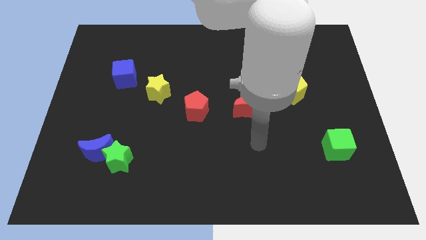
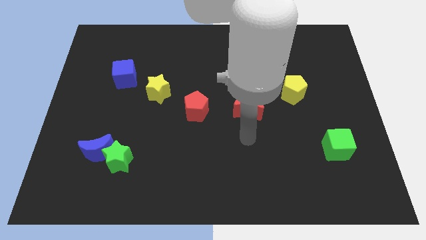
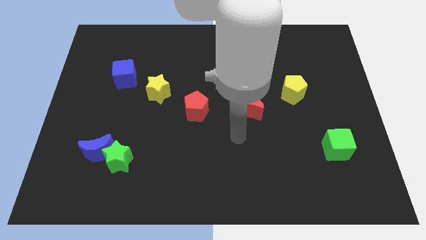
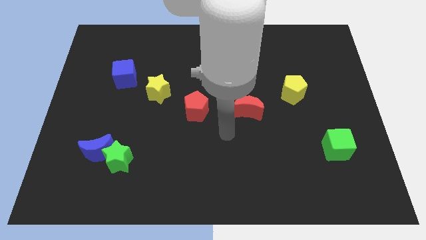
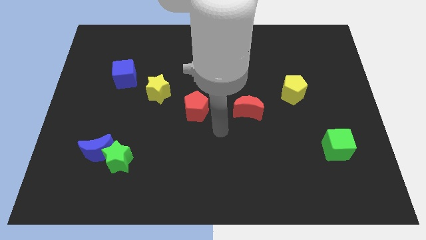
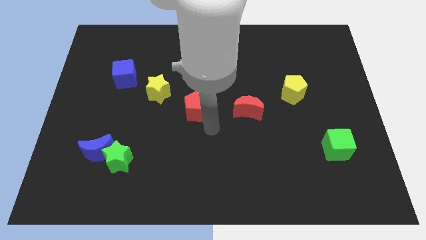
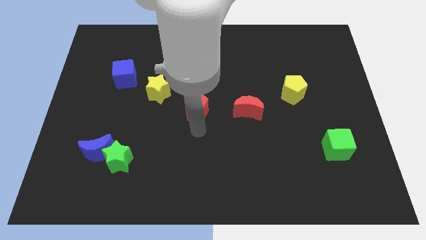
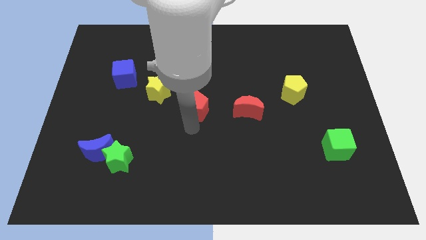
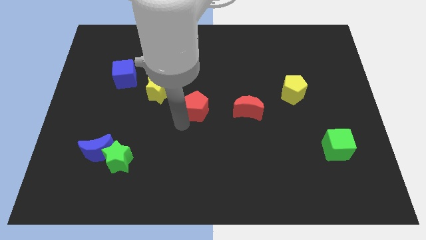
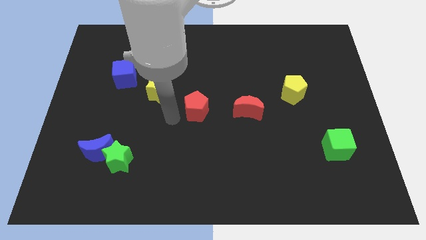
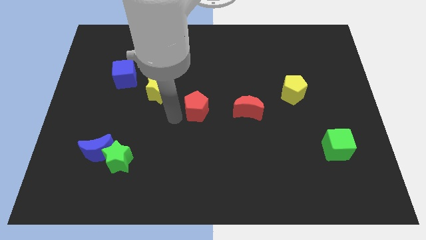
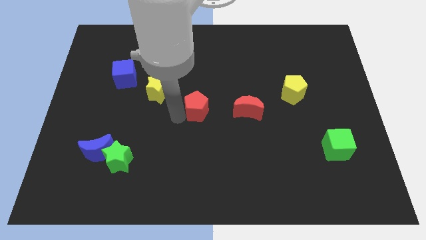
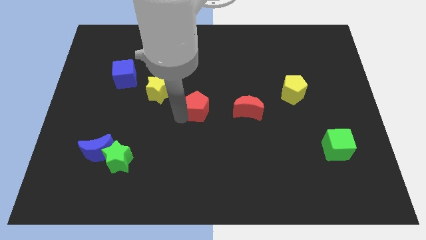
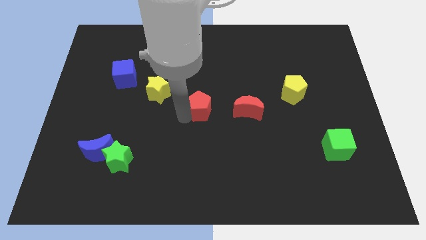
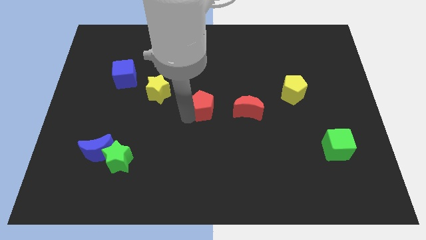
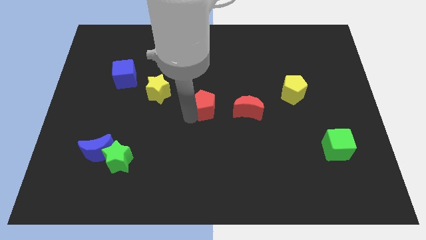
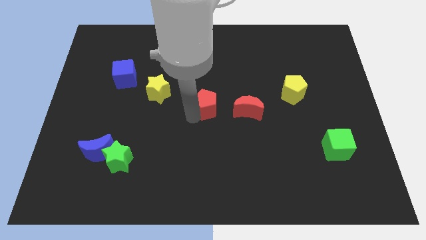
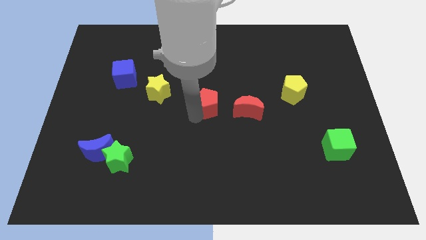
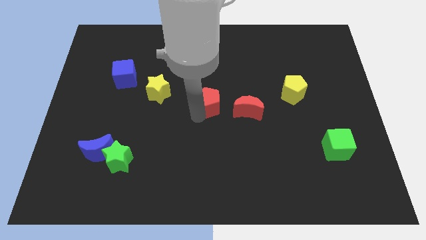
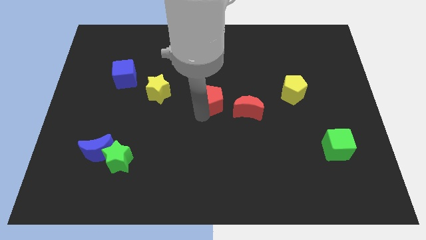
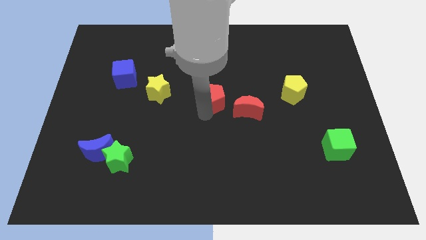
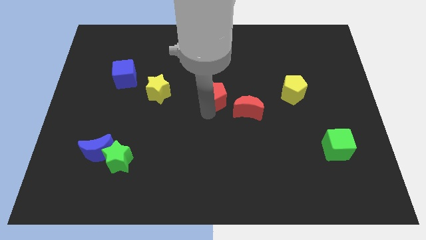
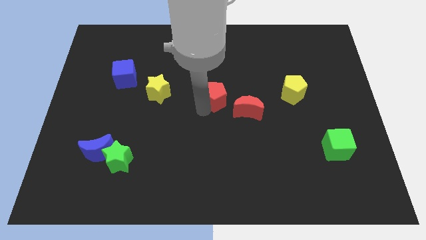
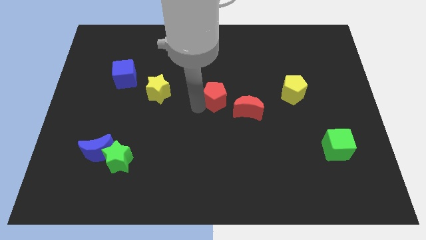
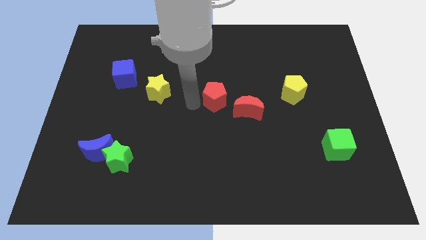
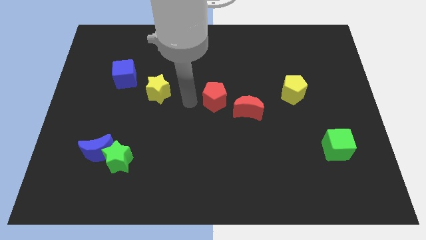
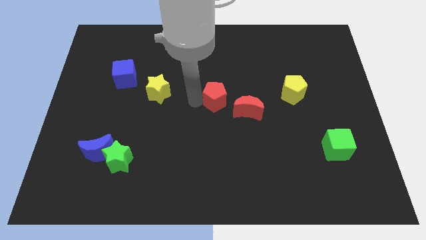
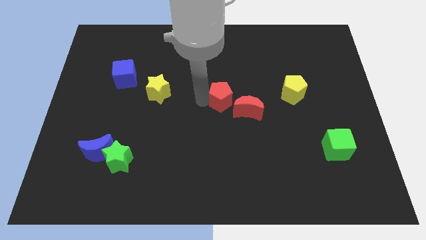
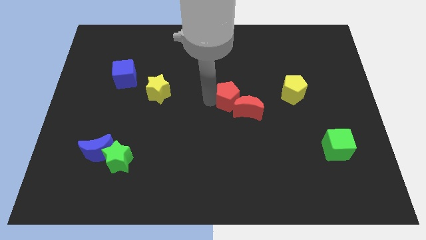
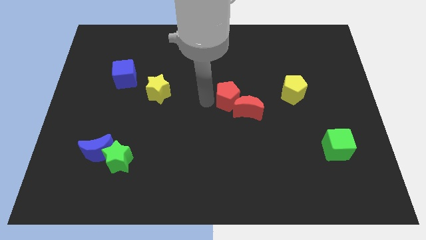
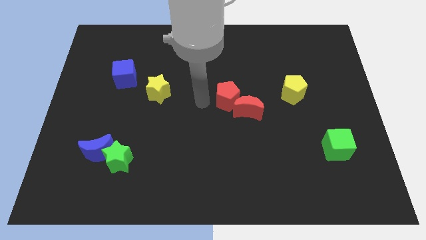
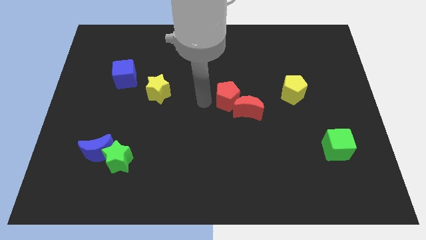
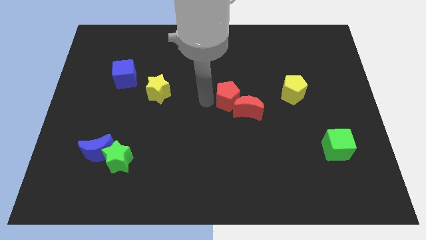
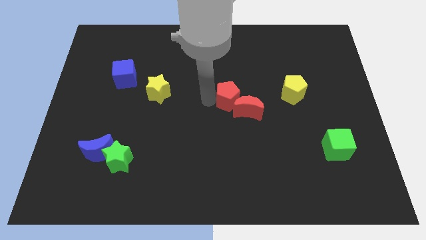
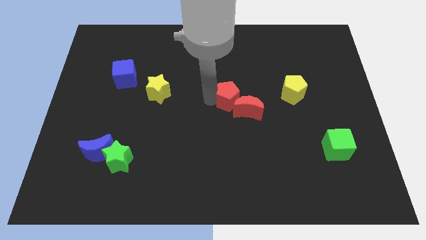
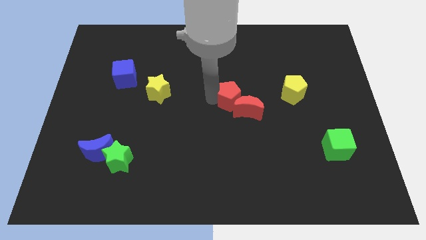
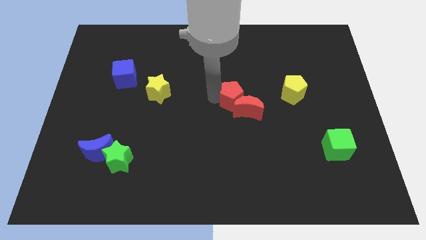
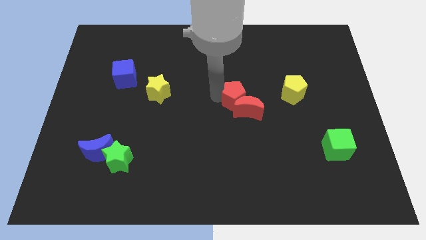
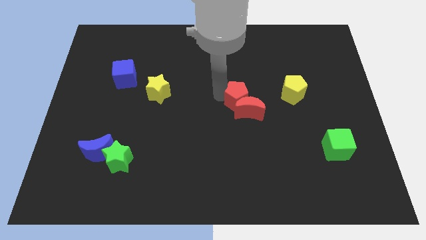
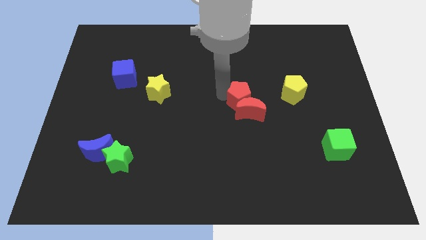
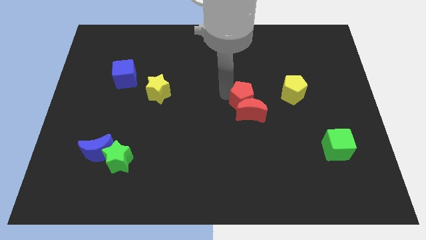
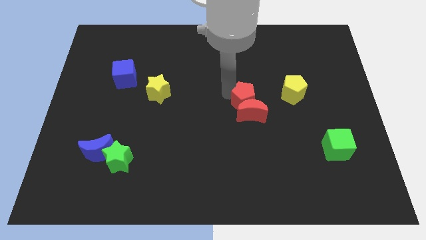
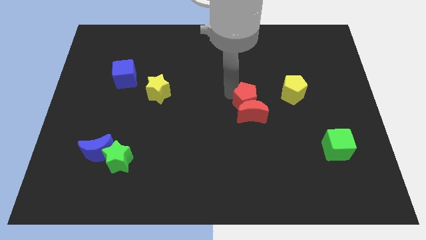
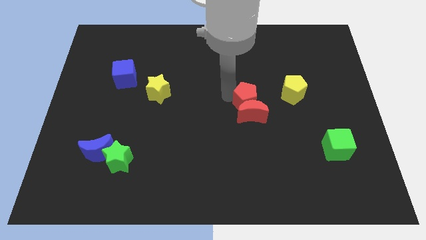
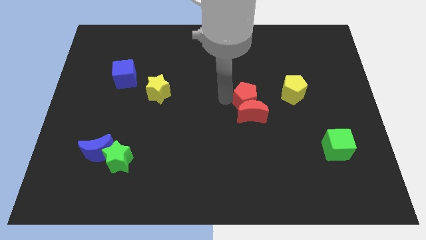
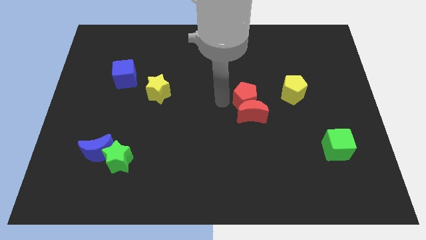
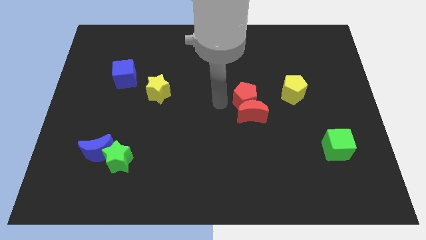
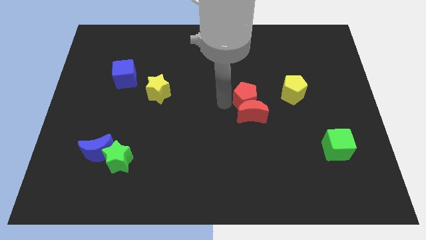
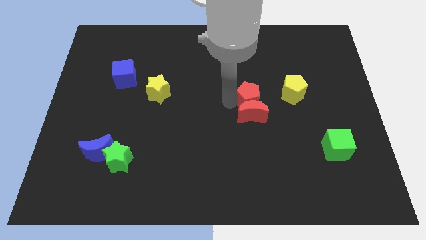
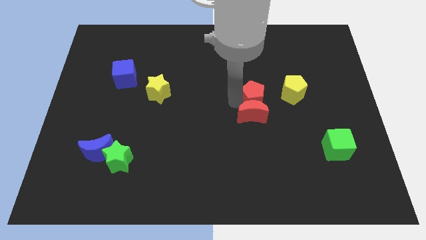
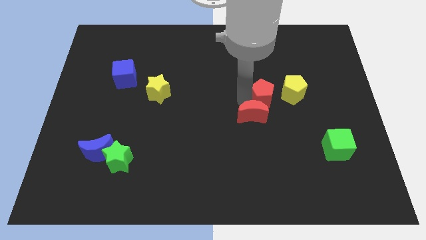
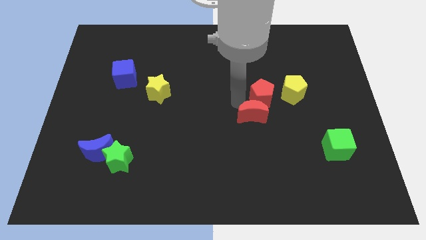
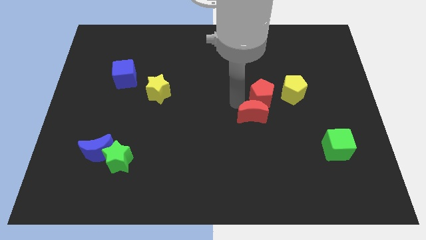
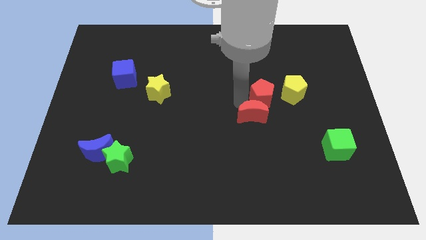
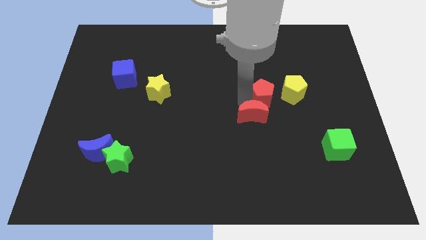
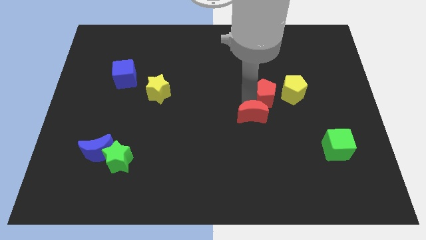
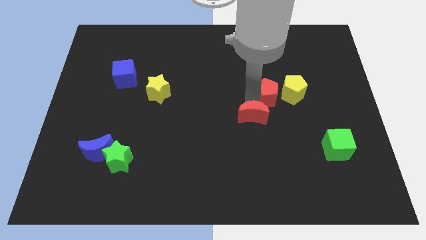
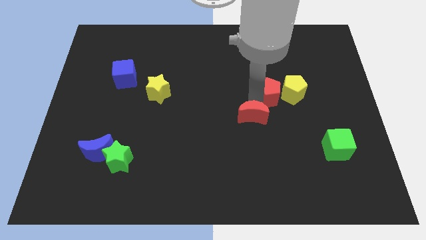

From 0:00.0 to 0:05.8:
push the red pentagon close to the yellow pentagon
